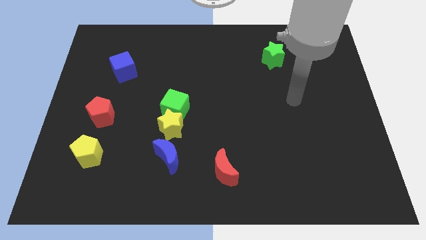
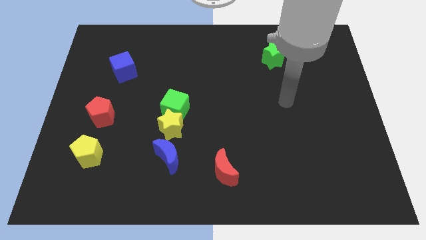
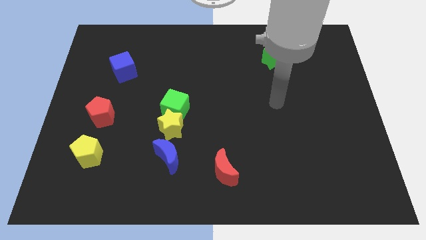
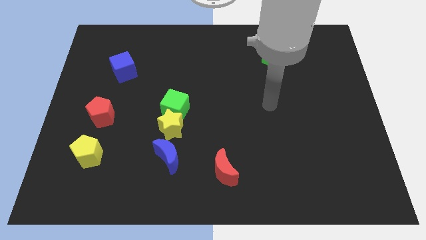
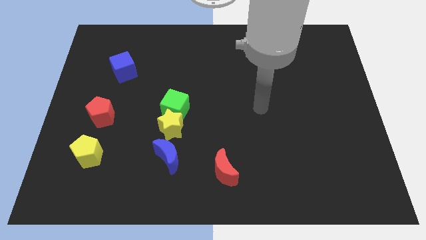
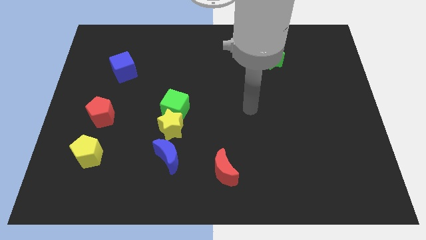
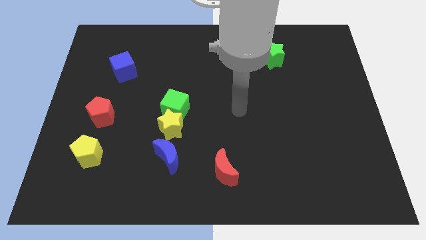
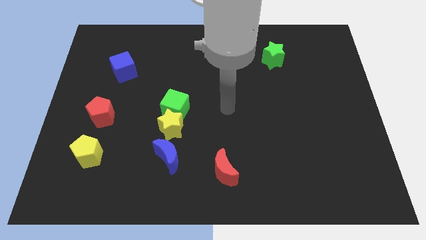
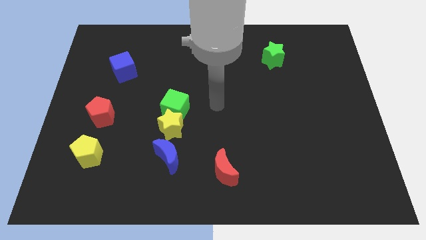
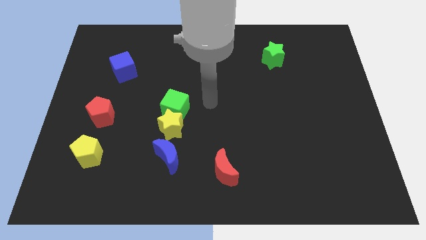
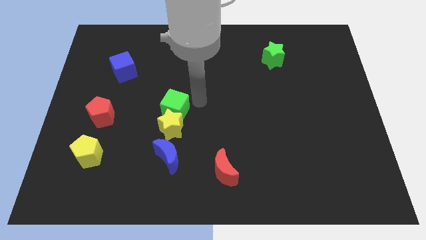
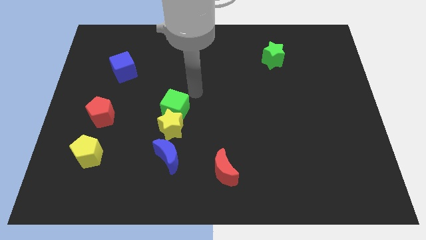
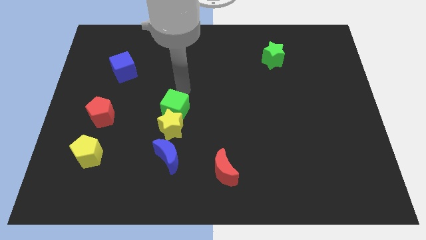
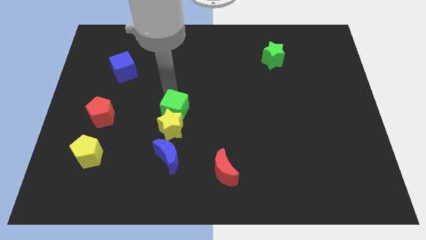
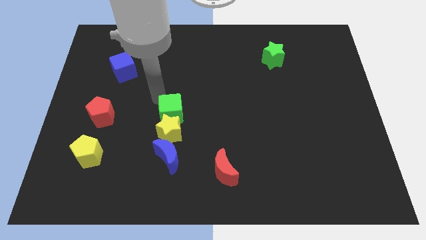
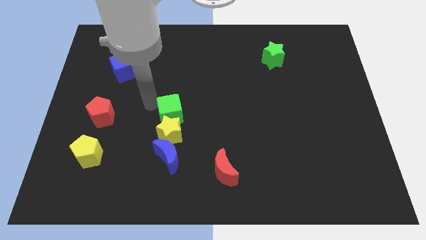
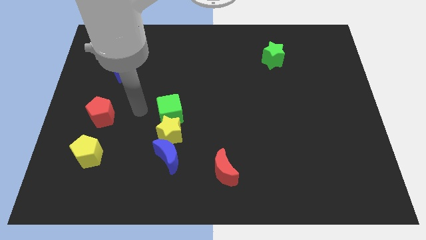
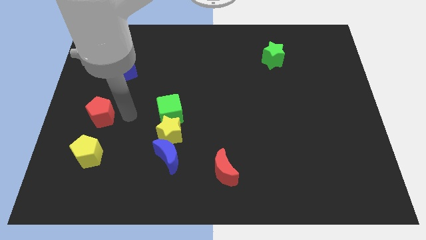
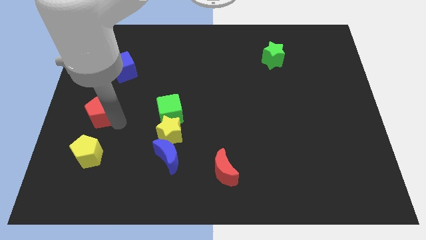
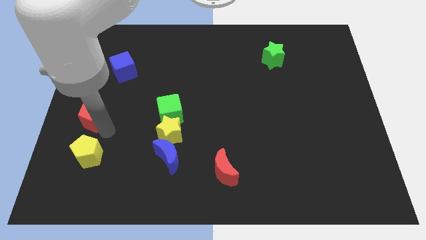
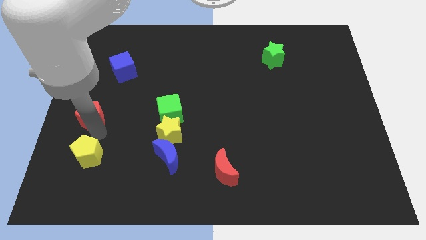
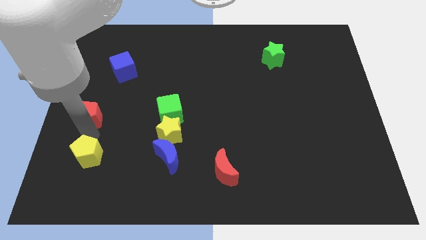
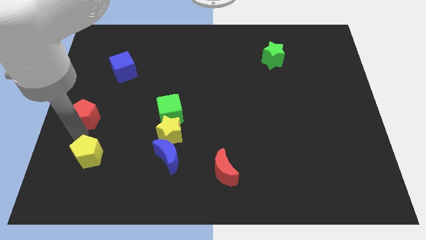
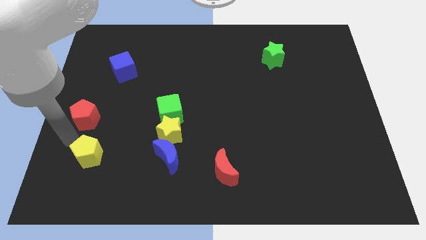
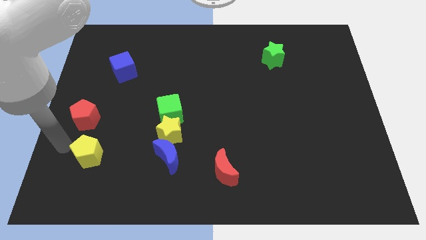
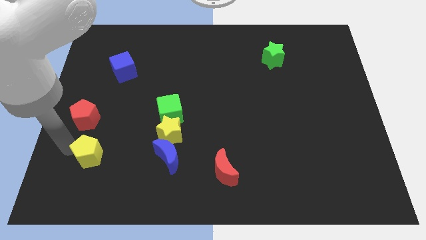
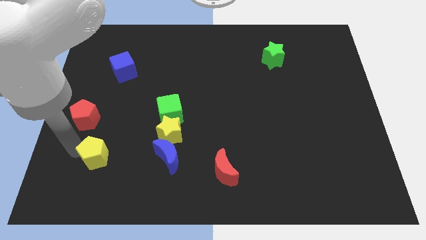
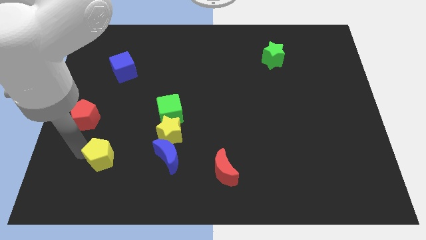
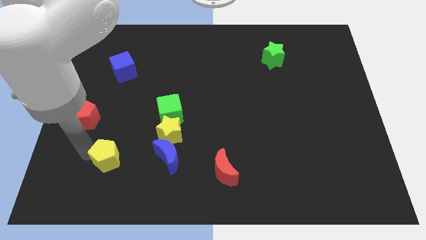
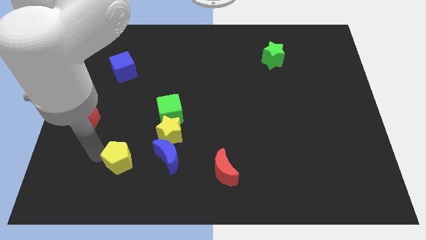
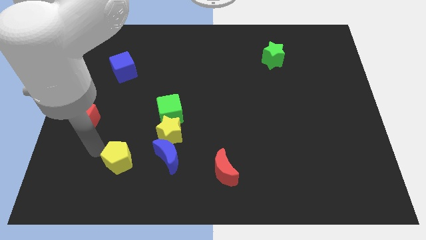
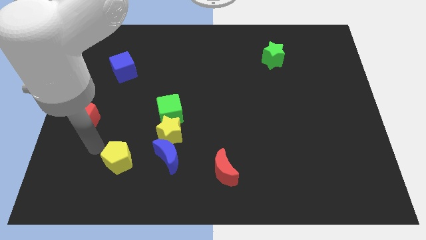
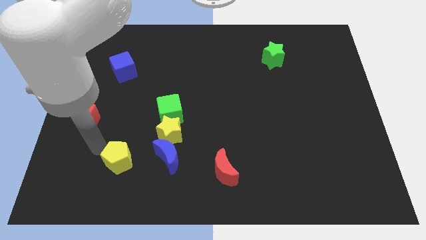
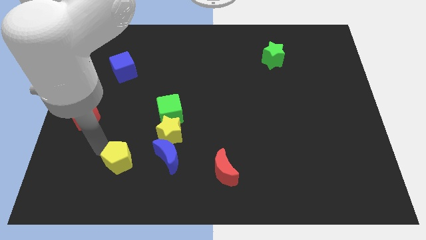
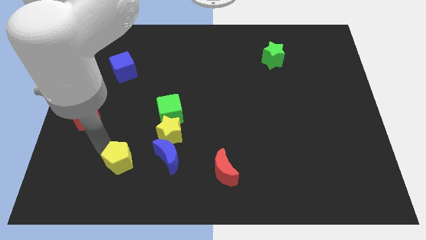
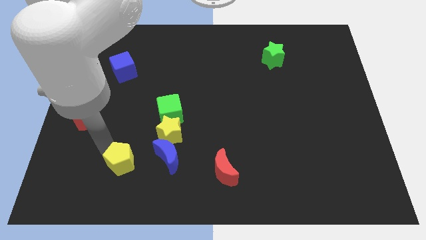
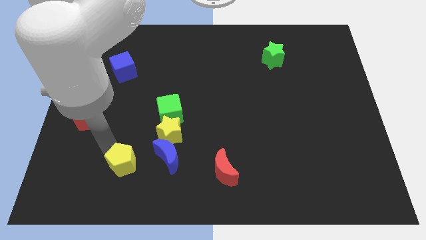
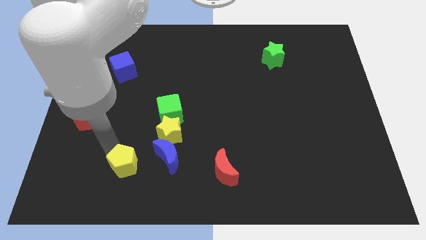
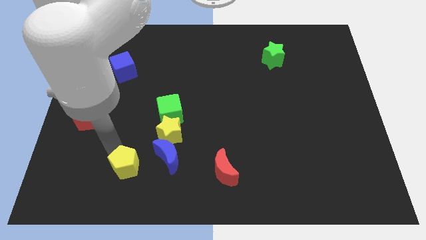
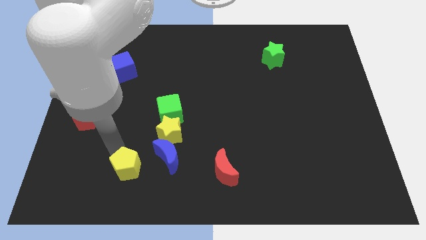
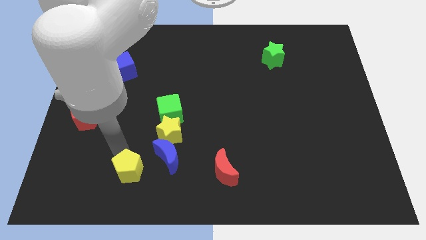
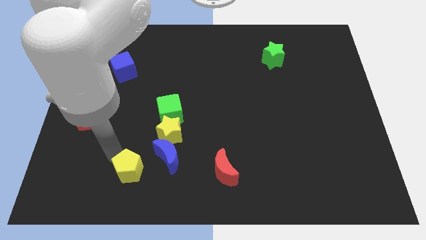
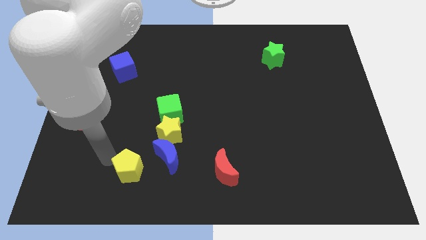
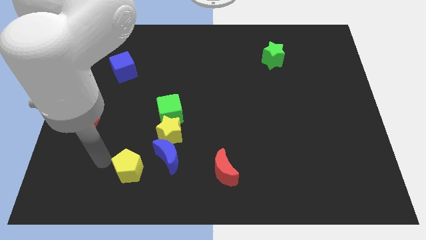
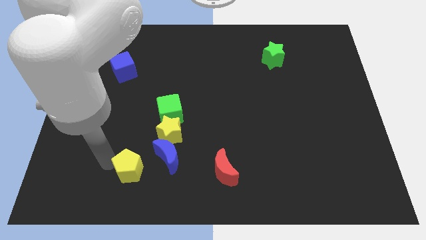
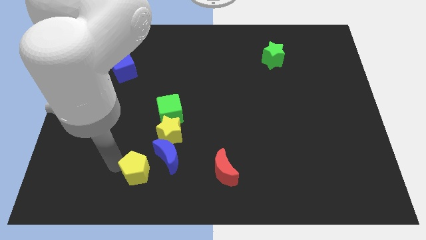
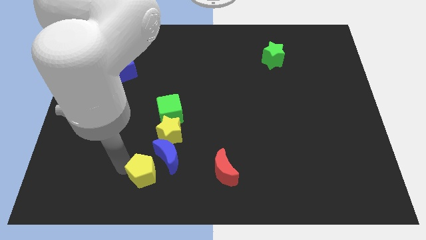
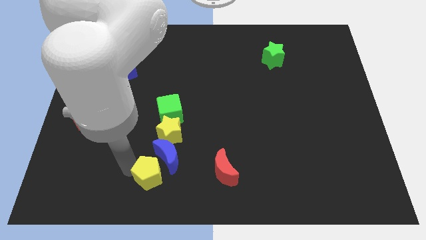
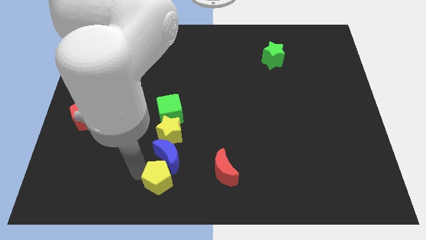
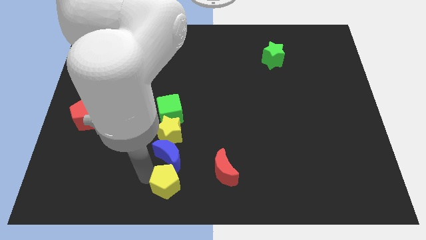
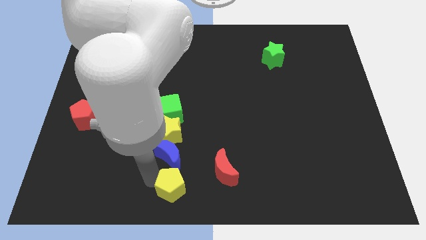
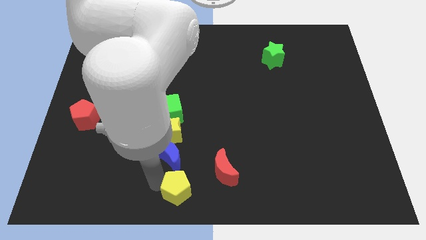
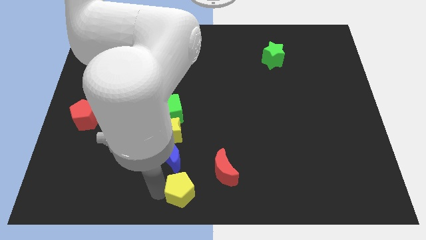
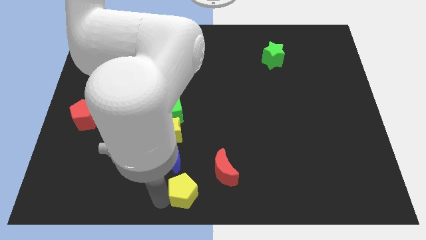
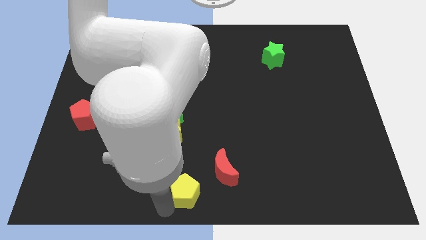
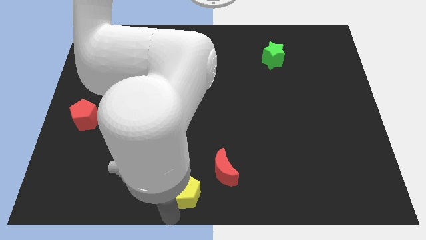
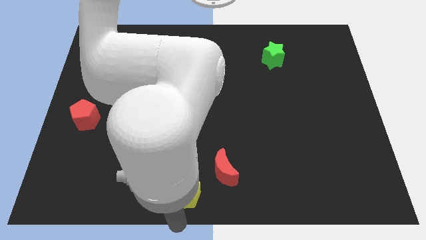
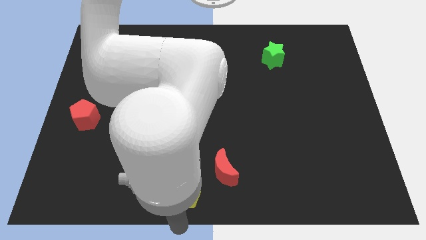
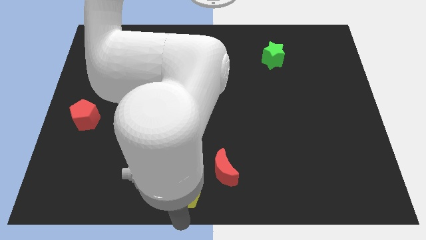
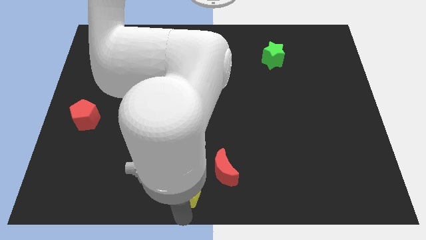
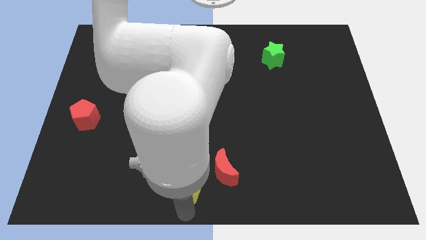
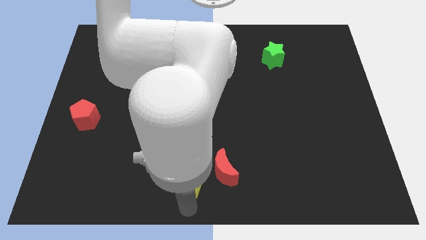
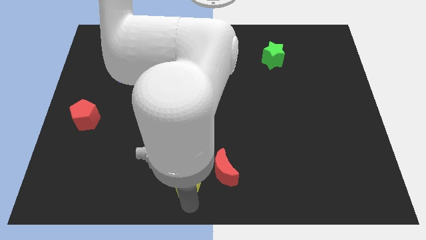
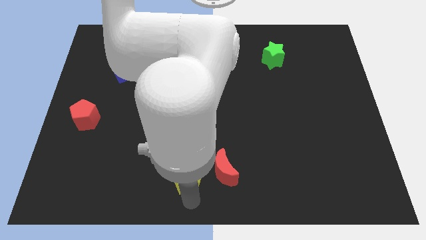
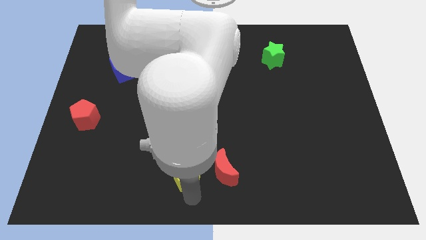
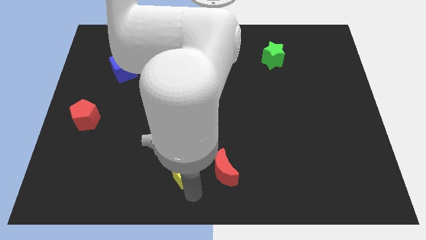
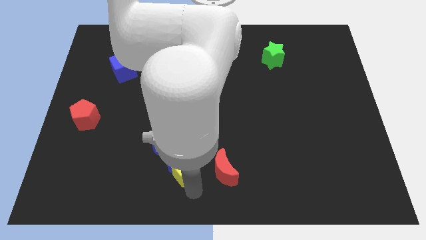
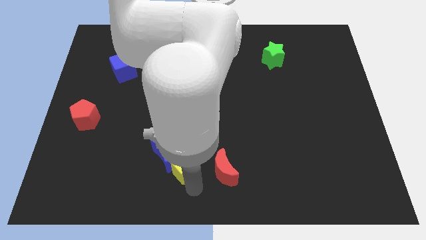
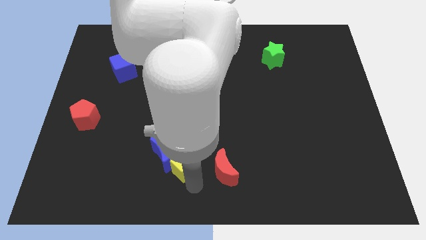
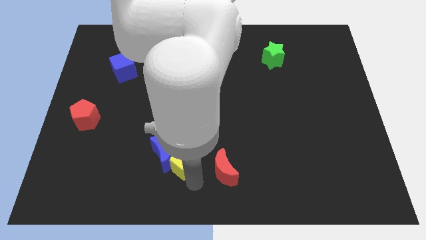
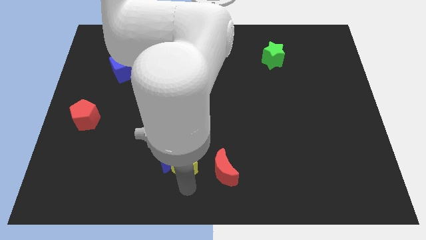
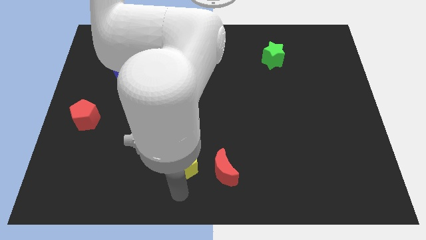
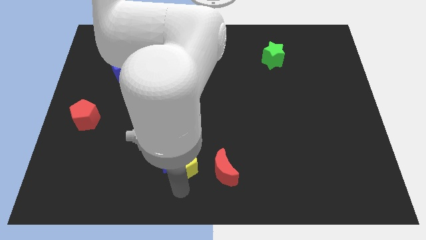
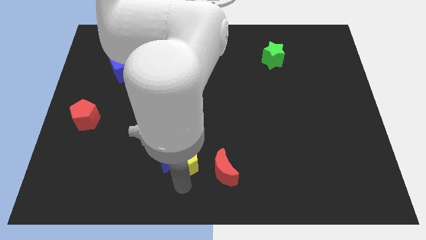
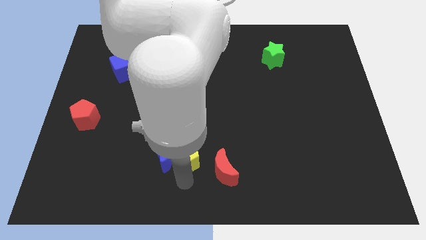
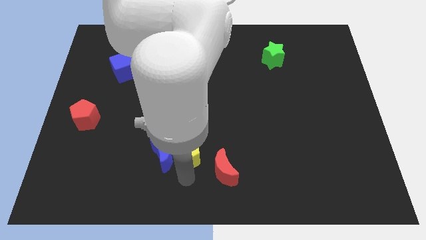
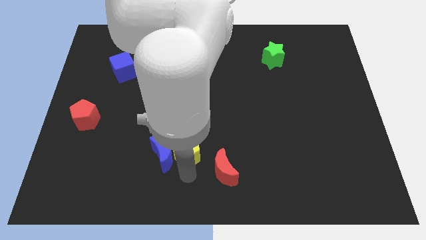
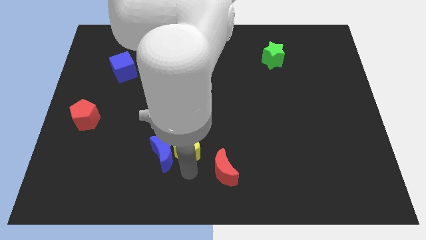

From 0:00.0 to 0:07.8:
push the yellow pentagon to the bottom right of the green cube
